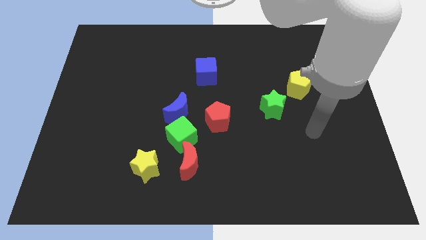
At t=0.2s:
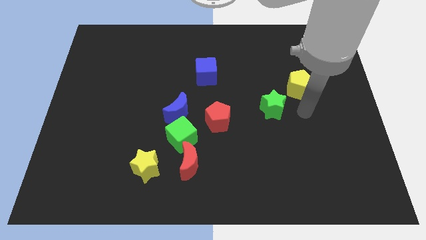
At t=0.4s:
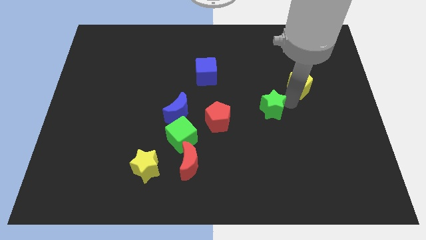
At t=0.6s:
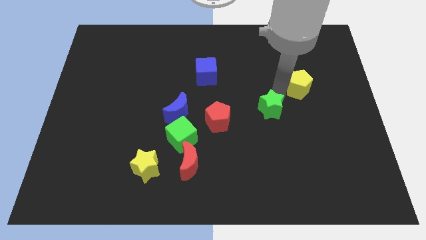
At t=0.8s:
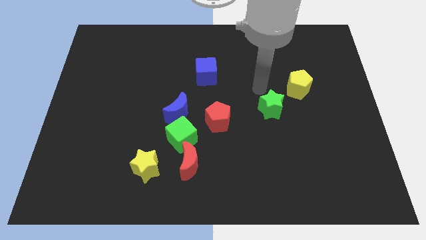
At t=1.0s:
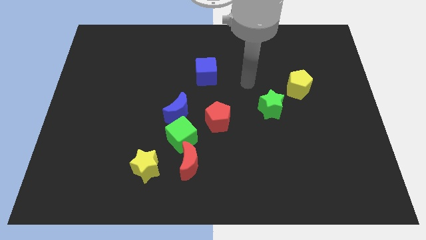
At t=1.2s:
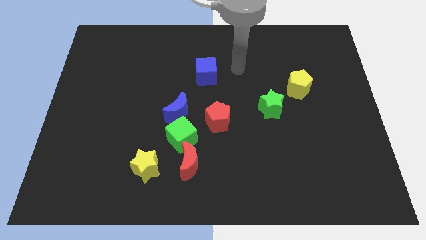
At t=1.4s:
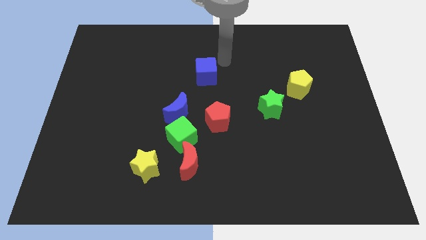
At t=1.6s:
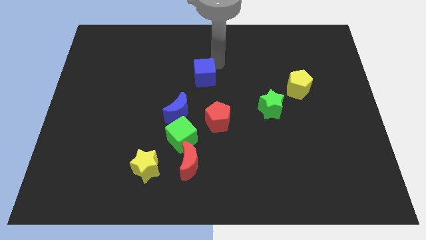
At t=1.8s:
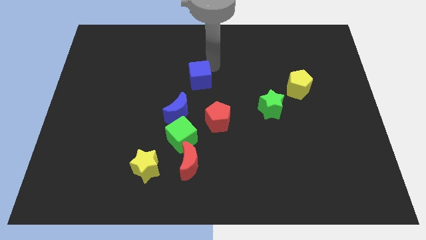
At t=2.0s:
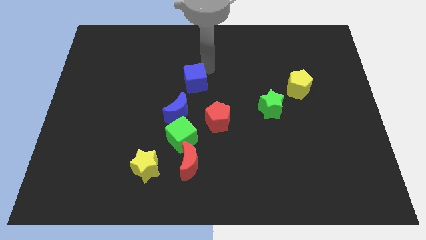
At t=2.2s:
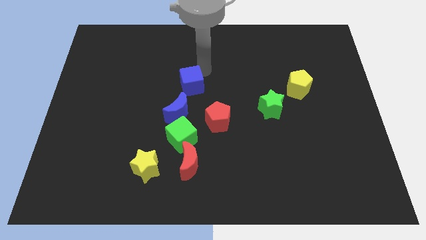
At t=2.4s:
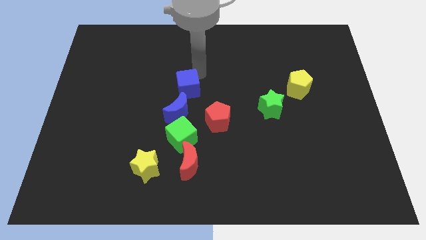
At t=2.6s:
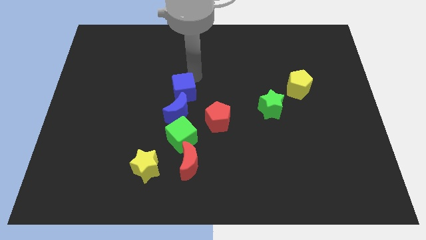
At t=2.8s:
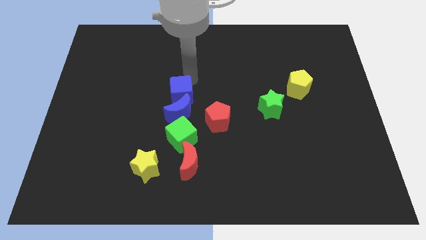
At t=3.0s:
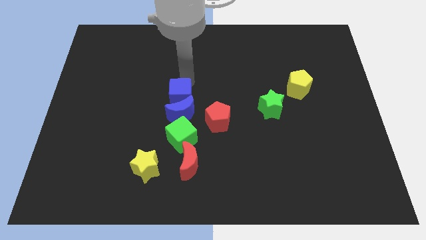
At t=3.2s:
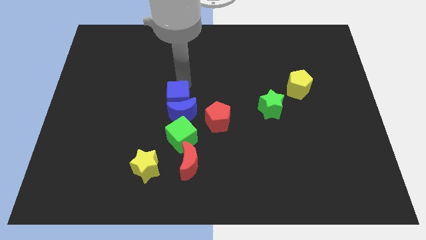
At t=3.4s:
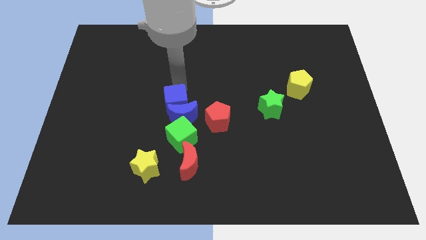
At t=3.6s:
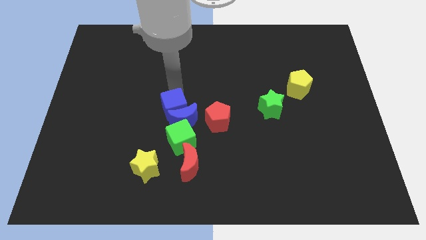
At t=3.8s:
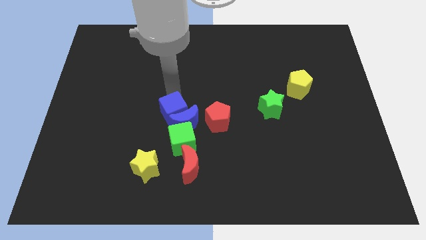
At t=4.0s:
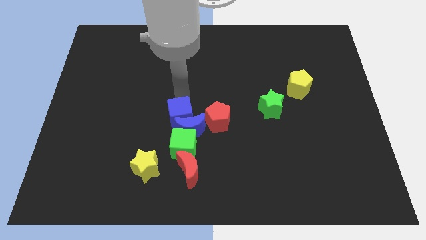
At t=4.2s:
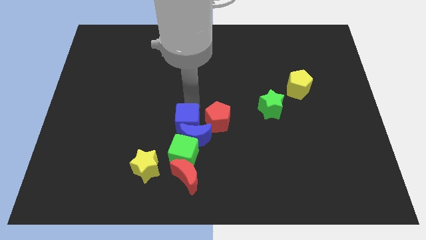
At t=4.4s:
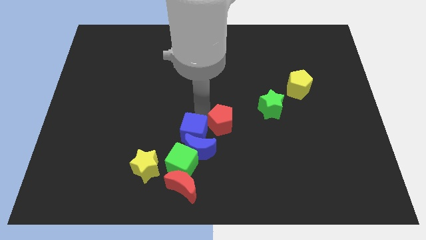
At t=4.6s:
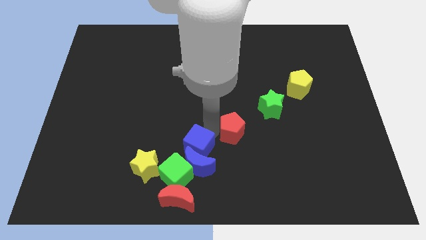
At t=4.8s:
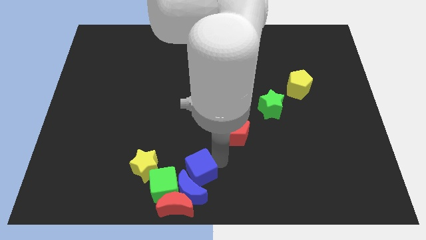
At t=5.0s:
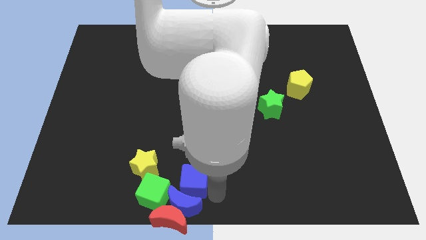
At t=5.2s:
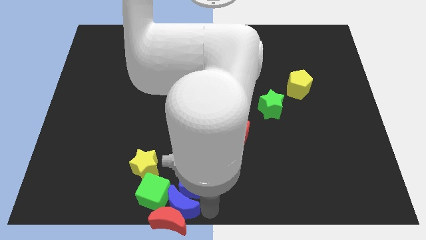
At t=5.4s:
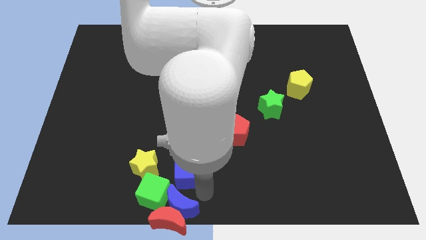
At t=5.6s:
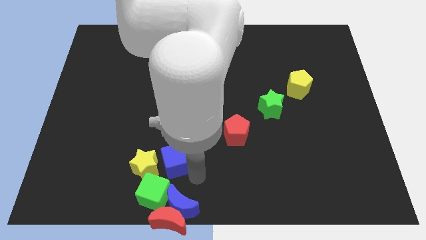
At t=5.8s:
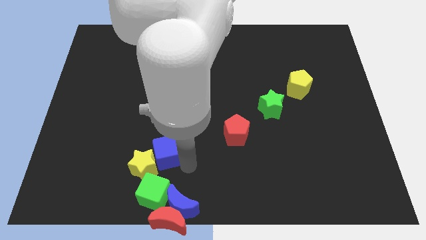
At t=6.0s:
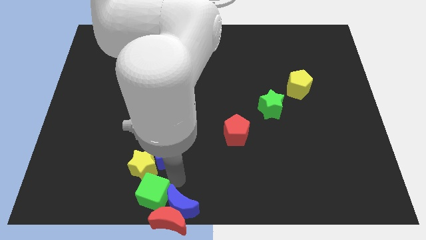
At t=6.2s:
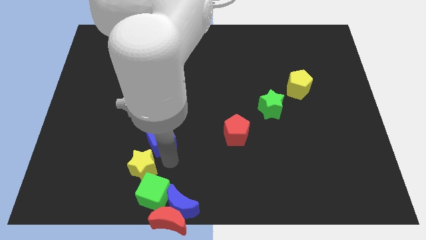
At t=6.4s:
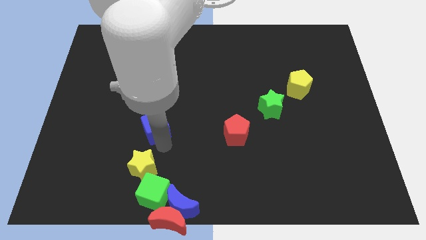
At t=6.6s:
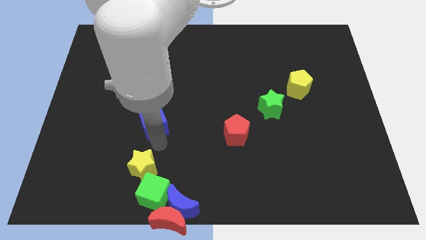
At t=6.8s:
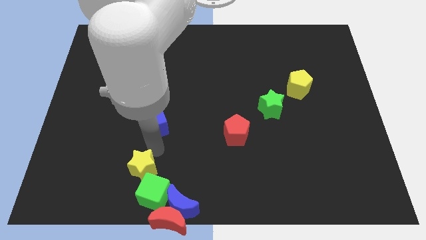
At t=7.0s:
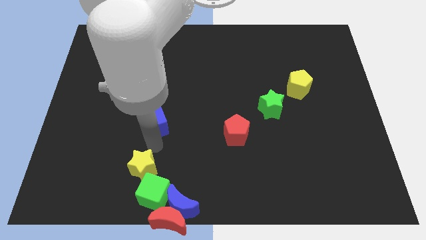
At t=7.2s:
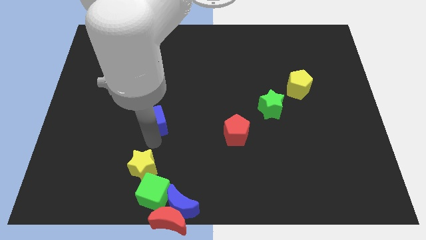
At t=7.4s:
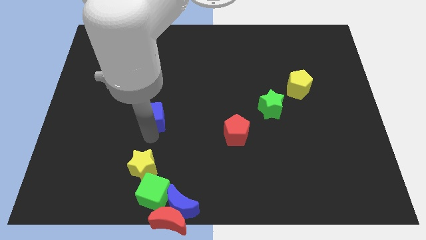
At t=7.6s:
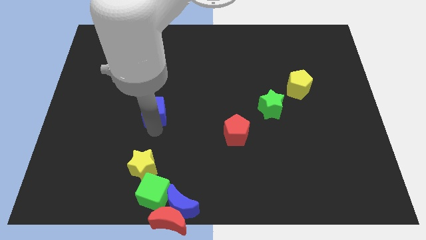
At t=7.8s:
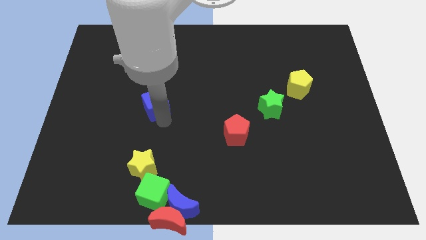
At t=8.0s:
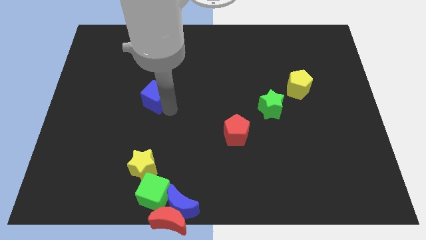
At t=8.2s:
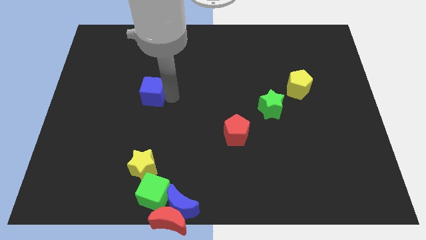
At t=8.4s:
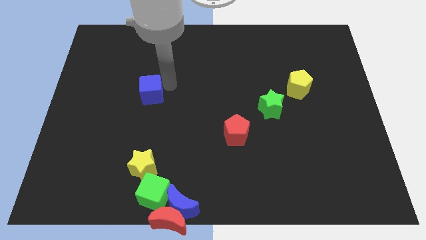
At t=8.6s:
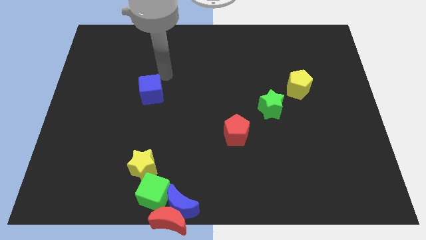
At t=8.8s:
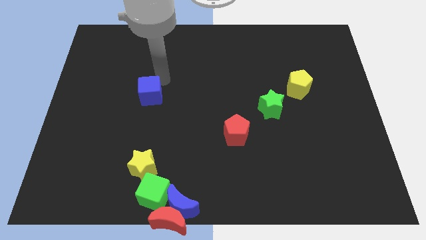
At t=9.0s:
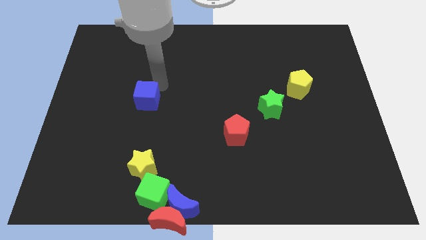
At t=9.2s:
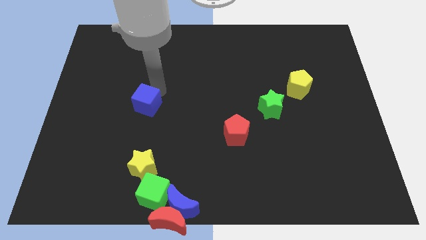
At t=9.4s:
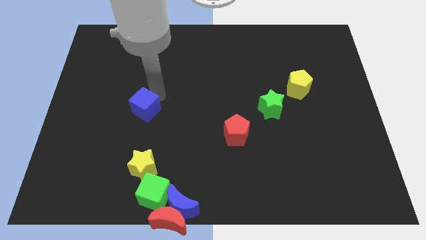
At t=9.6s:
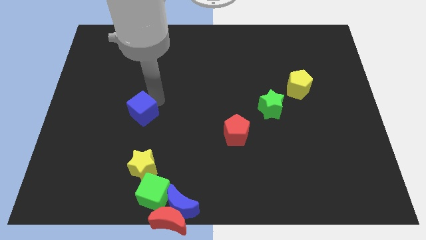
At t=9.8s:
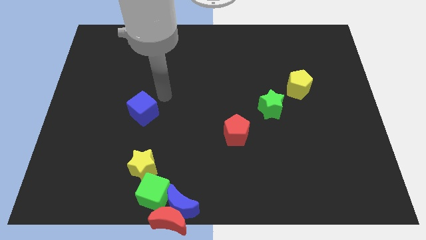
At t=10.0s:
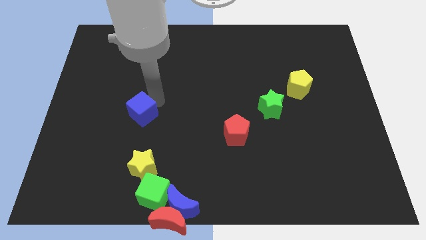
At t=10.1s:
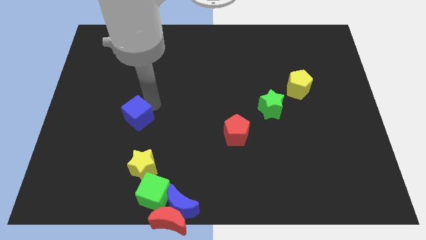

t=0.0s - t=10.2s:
slide the blue cube down and left

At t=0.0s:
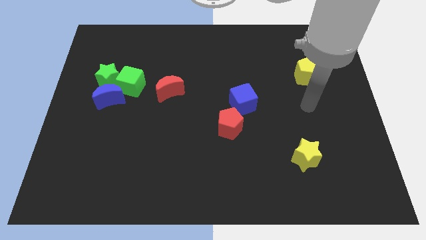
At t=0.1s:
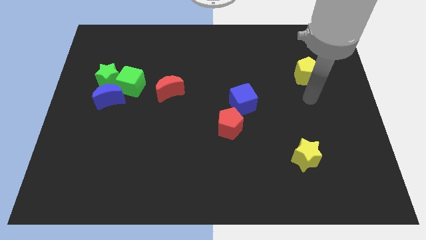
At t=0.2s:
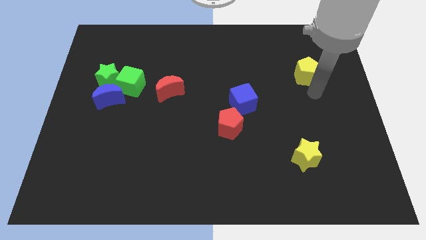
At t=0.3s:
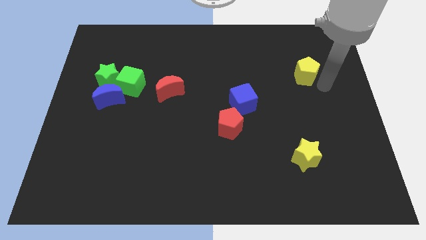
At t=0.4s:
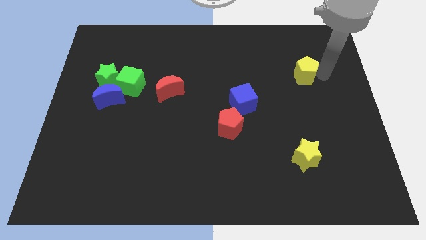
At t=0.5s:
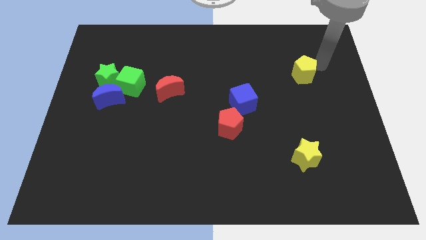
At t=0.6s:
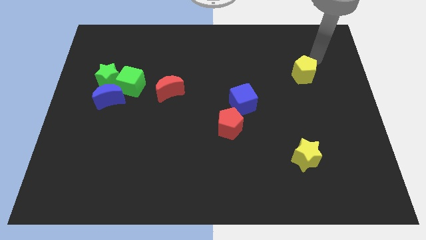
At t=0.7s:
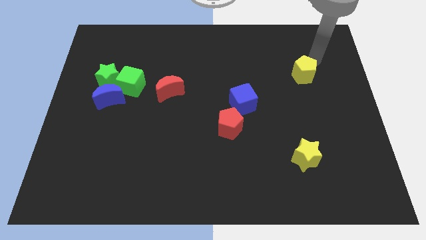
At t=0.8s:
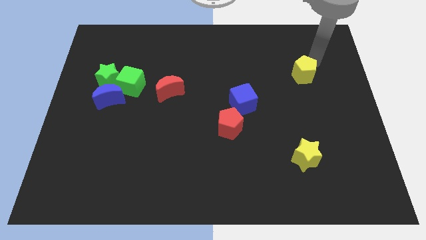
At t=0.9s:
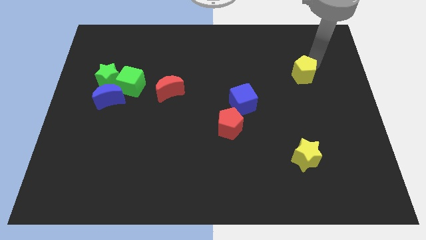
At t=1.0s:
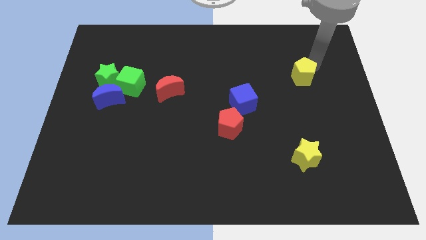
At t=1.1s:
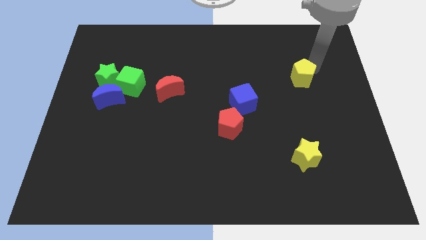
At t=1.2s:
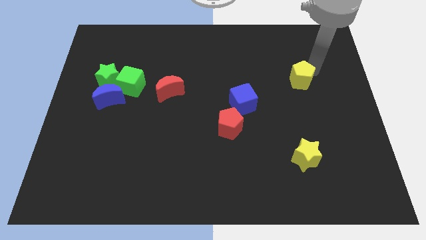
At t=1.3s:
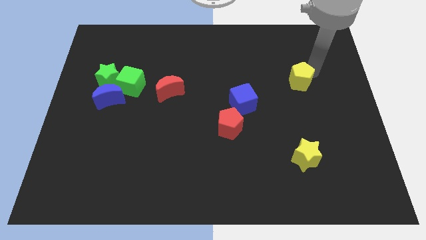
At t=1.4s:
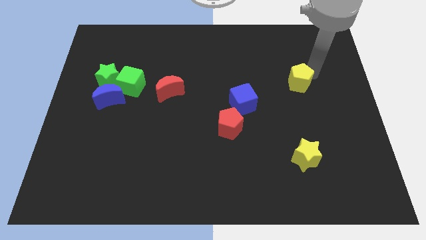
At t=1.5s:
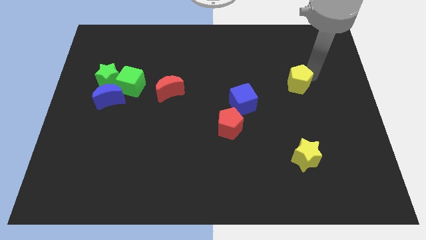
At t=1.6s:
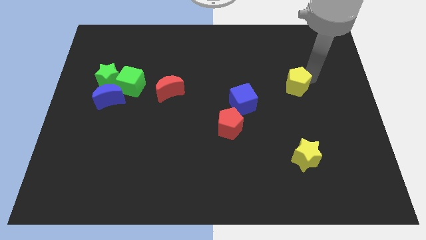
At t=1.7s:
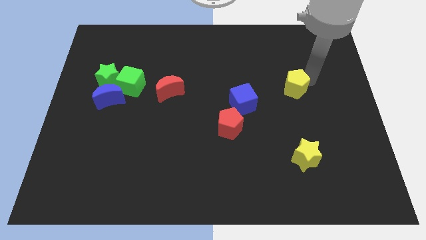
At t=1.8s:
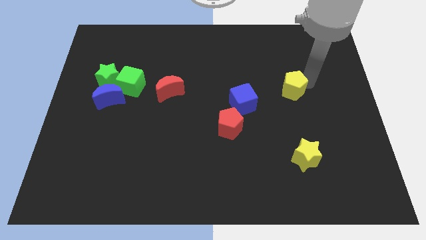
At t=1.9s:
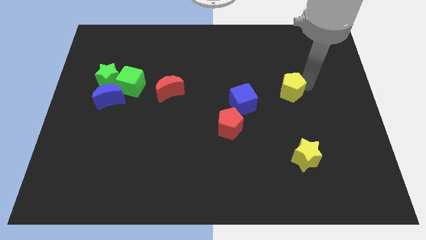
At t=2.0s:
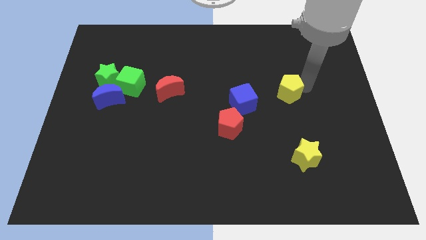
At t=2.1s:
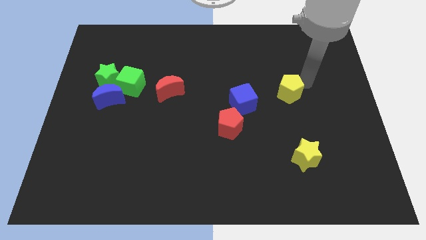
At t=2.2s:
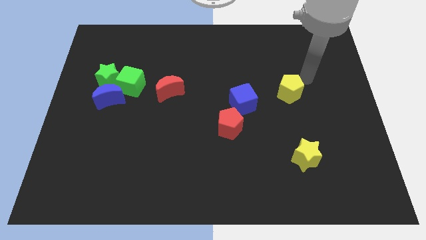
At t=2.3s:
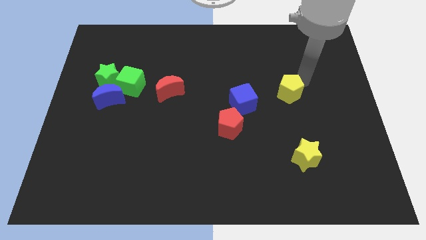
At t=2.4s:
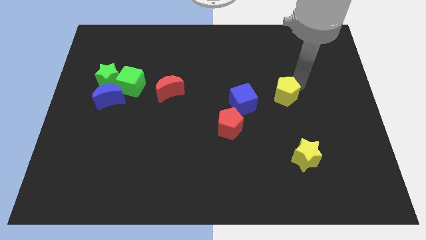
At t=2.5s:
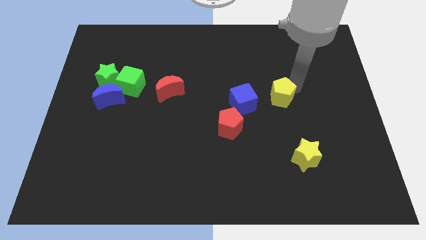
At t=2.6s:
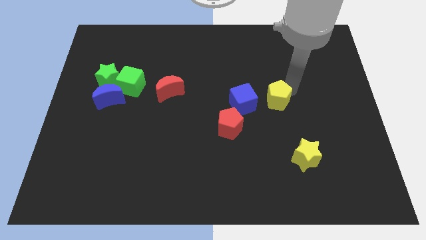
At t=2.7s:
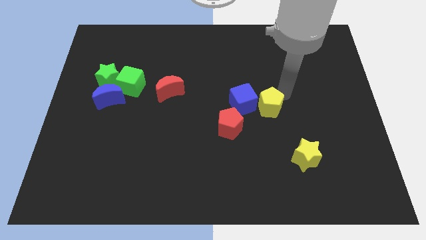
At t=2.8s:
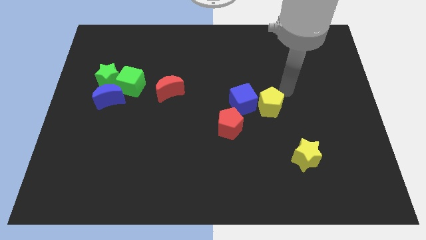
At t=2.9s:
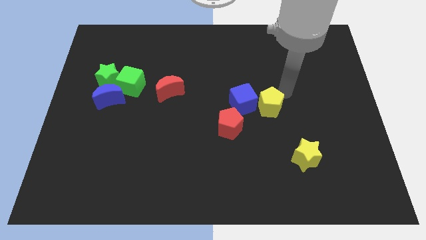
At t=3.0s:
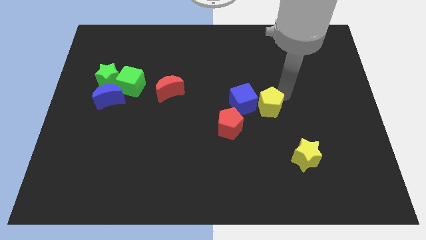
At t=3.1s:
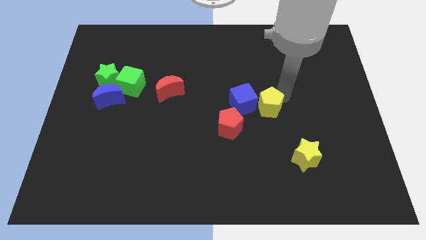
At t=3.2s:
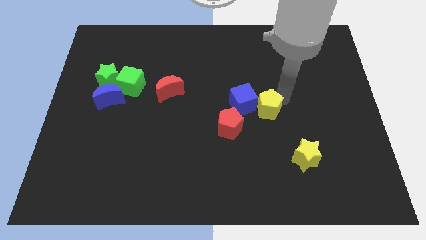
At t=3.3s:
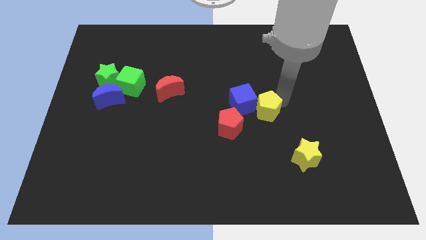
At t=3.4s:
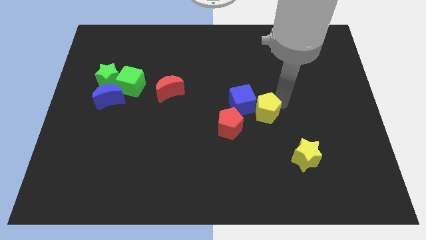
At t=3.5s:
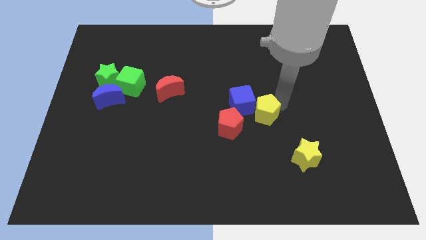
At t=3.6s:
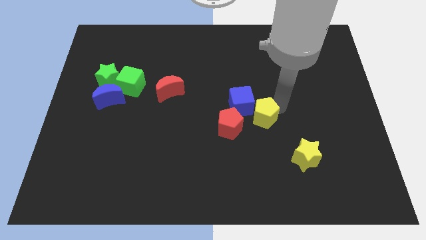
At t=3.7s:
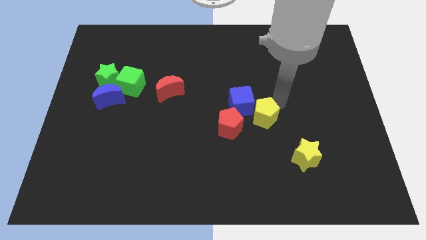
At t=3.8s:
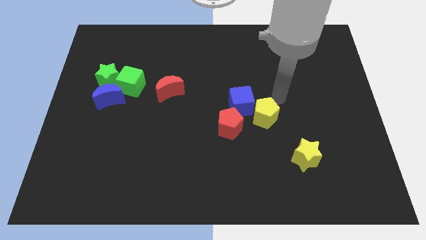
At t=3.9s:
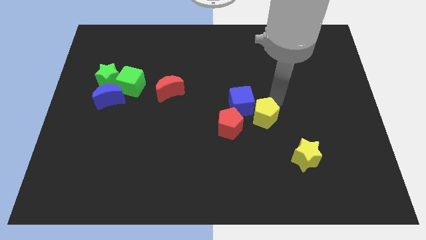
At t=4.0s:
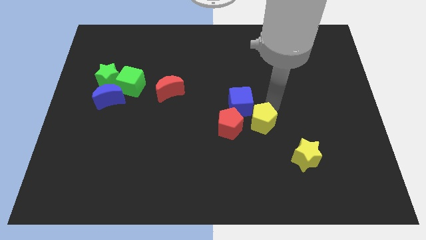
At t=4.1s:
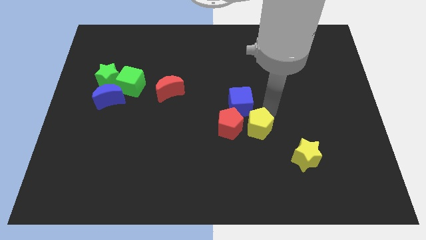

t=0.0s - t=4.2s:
push the yellow pentagon downwards and to the left diagonally
